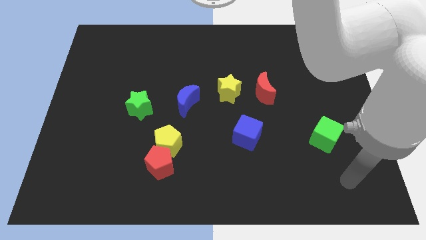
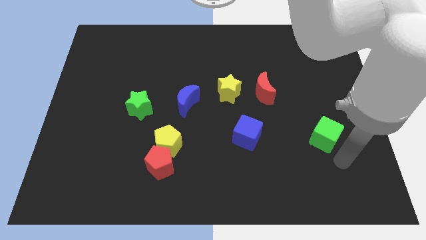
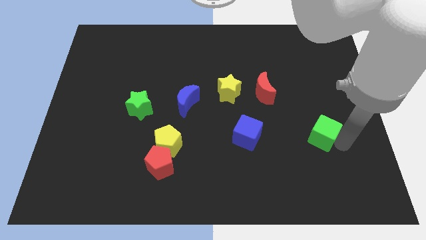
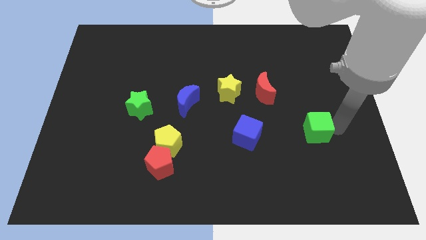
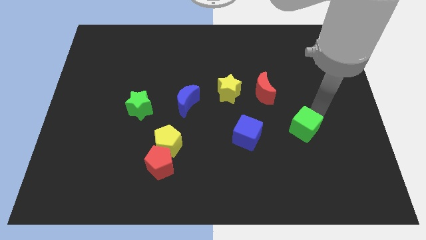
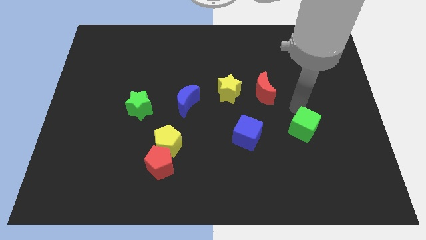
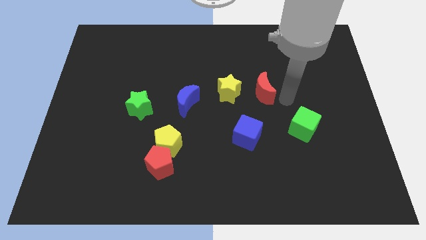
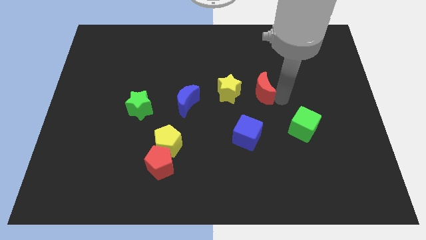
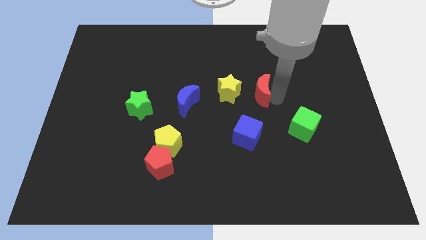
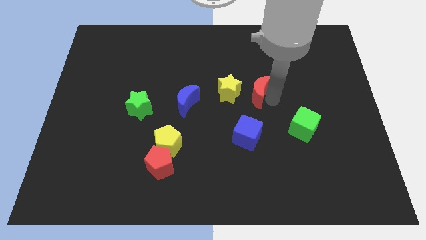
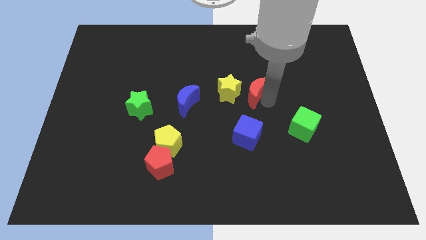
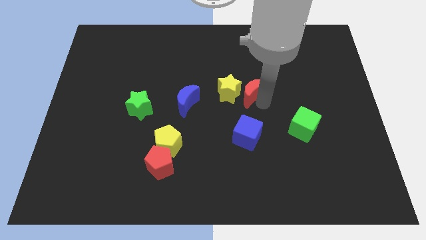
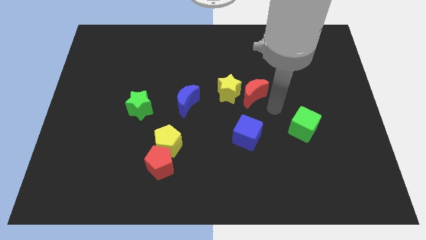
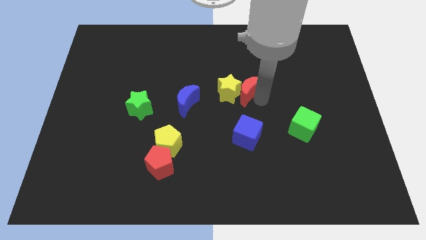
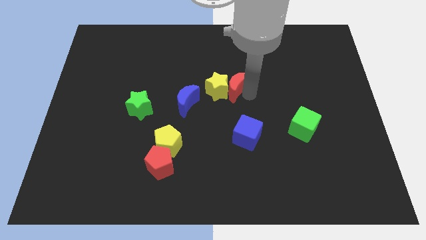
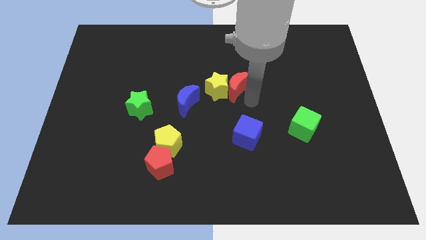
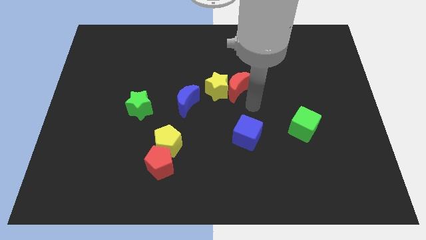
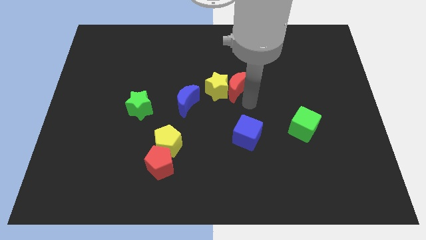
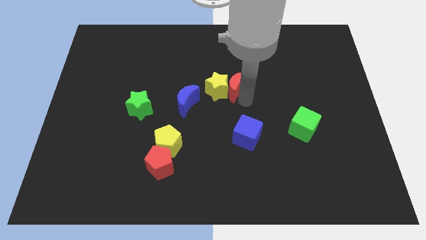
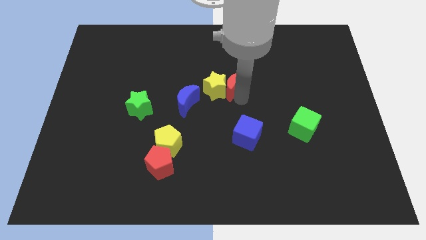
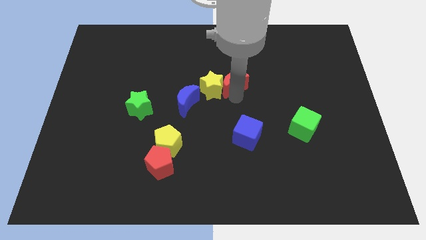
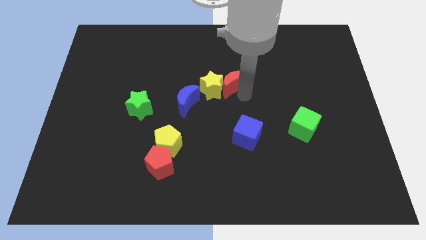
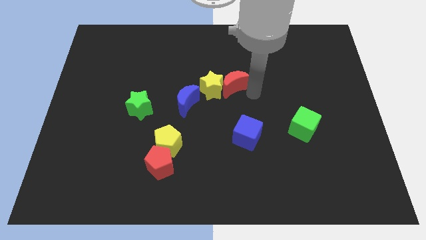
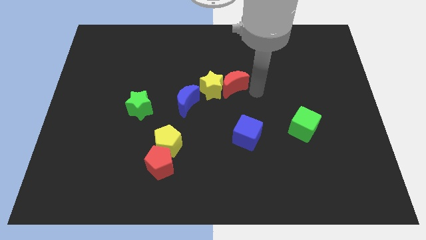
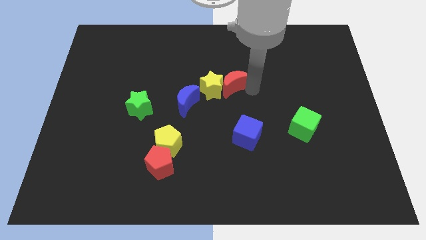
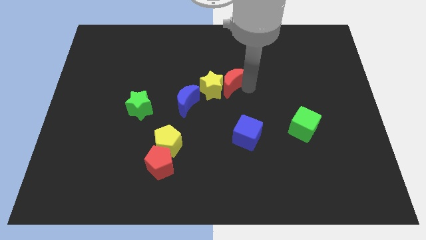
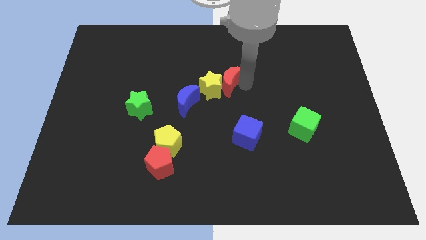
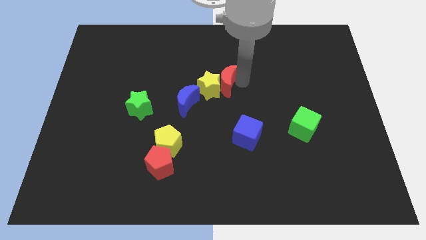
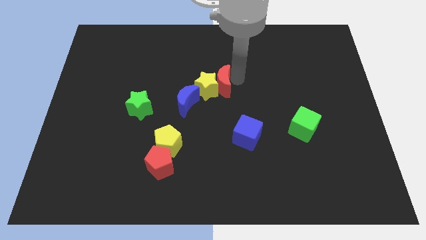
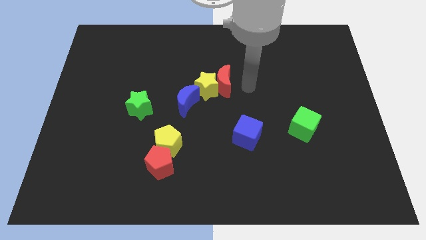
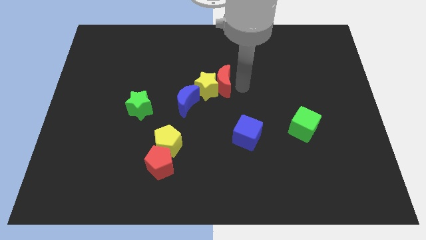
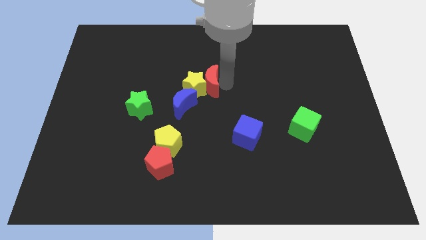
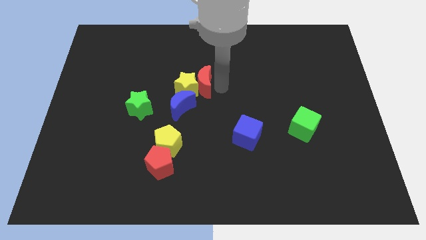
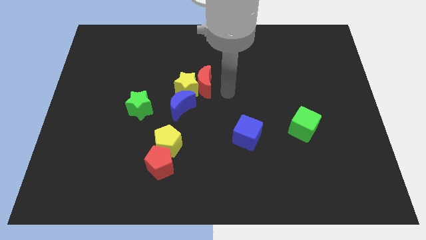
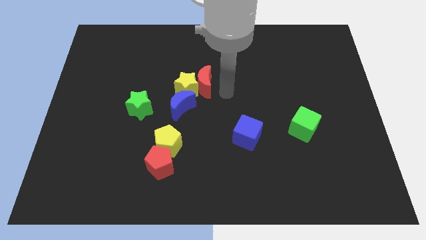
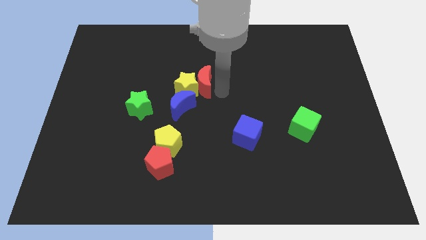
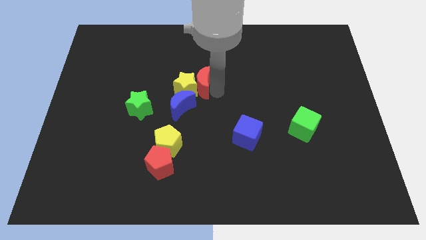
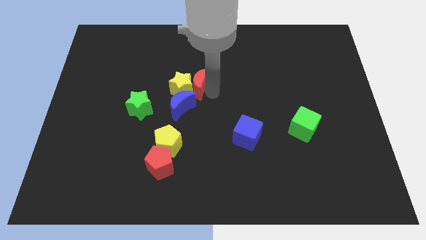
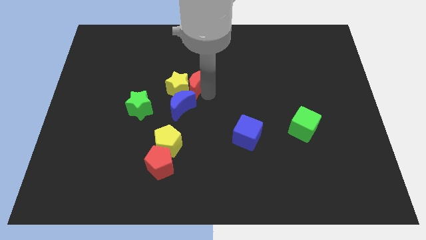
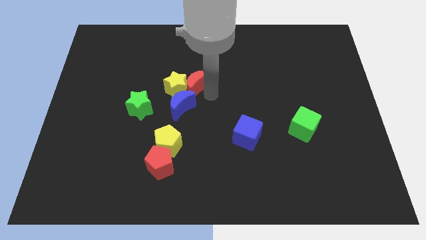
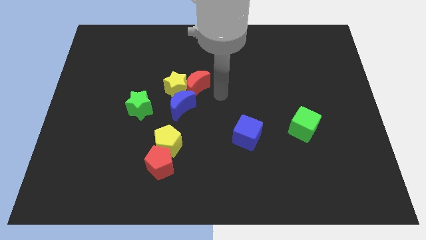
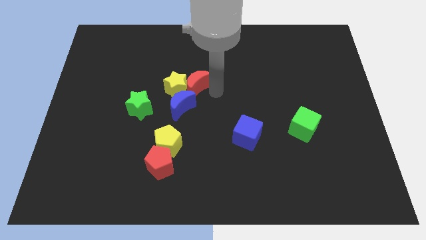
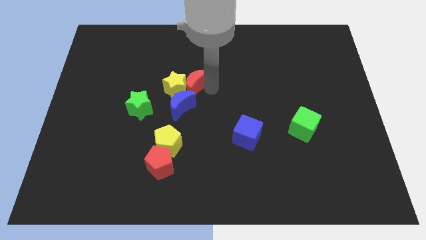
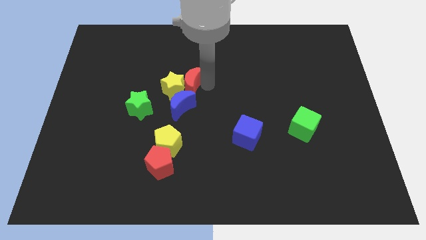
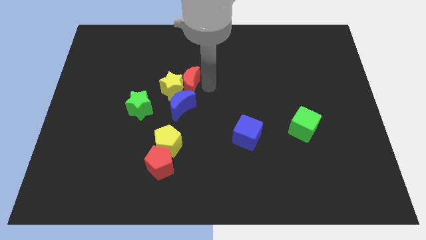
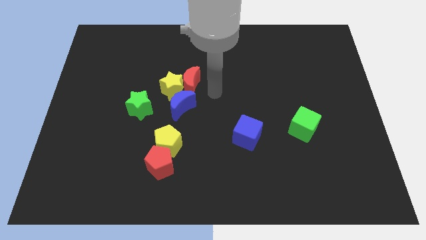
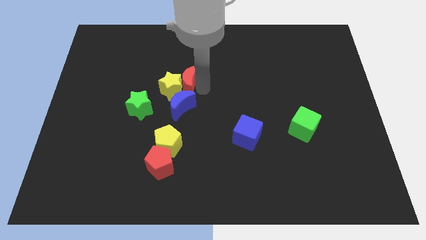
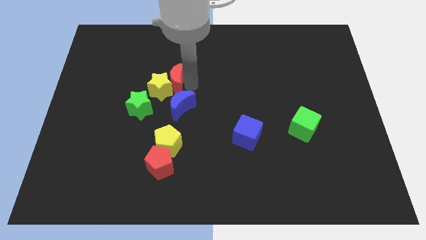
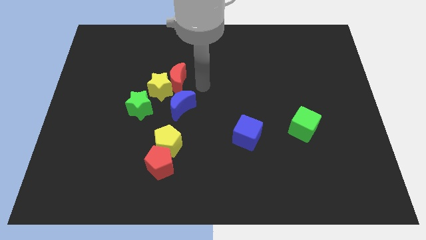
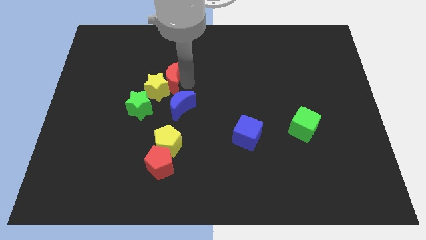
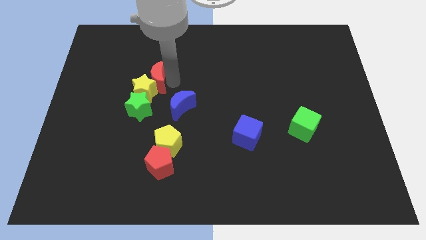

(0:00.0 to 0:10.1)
put the red moon to the top of the green star

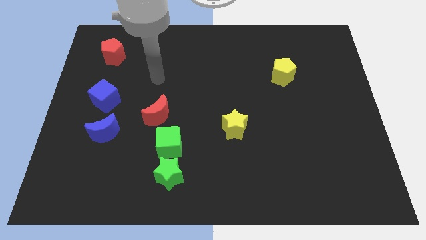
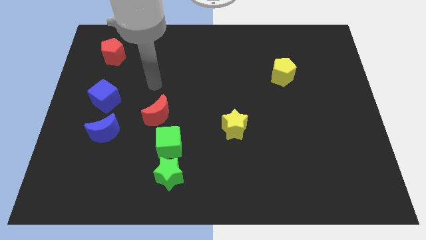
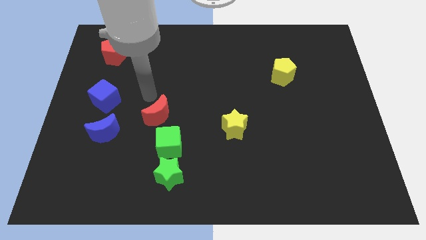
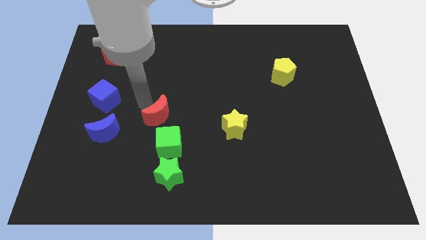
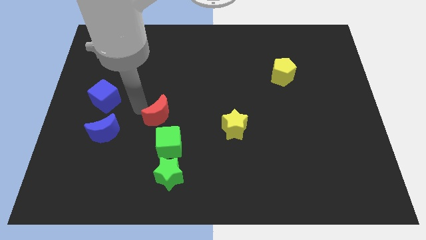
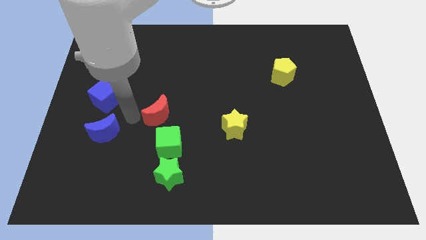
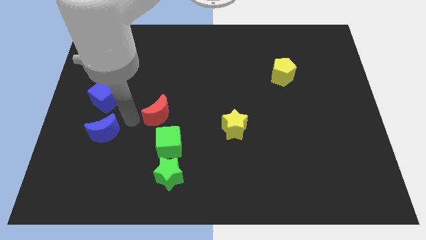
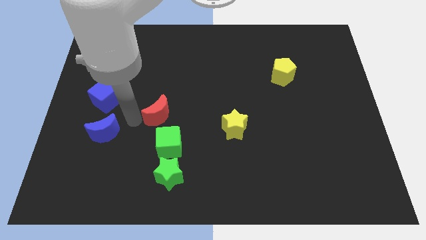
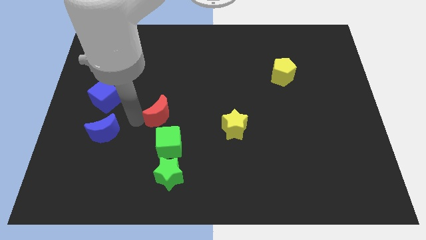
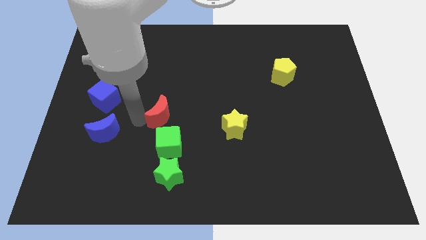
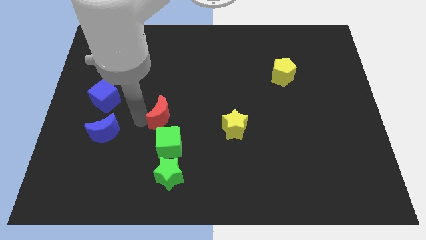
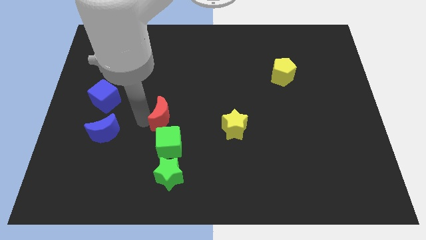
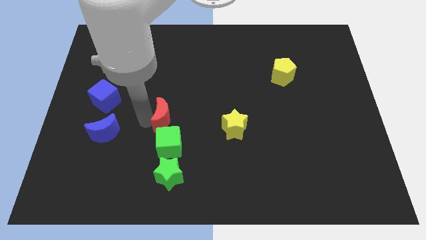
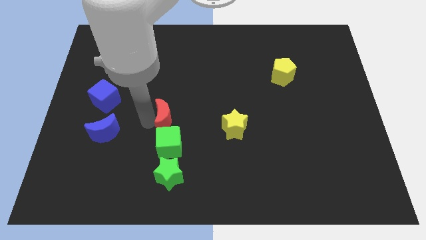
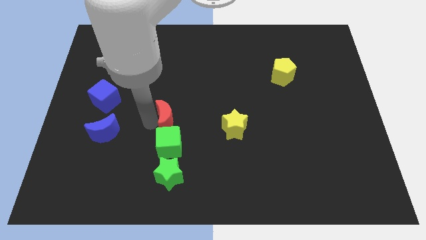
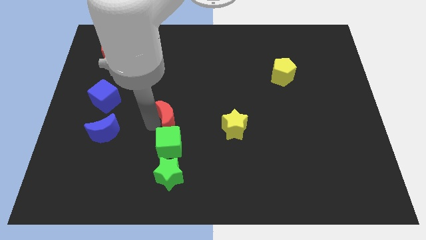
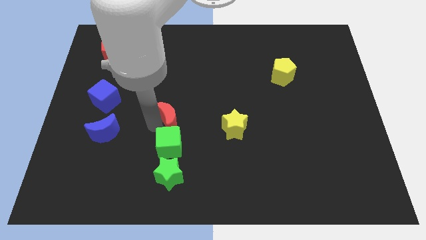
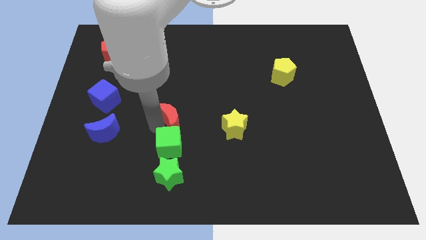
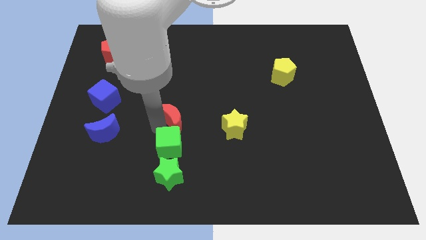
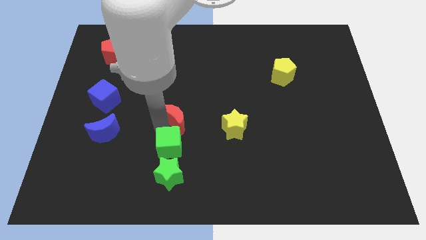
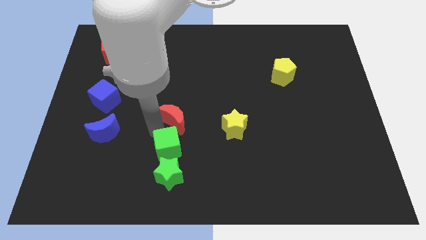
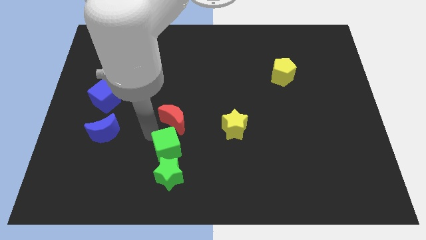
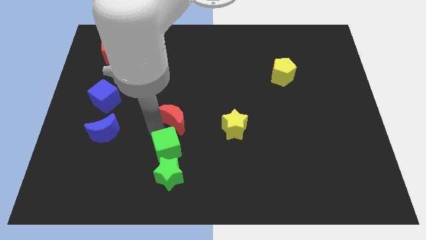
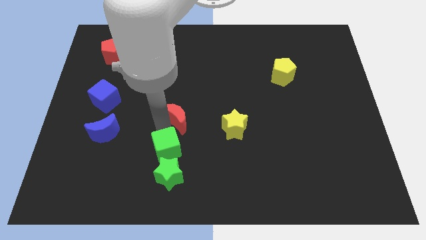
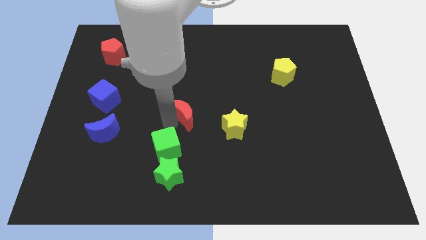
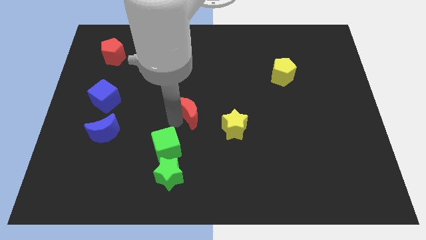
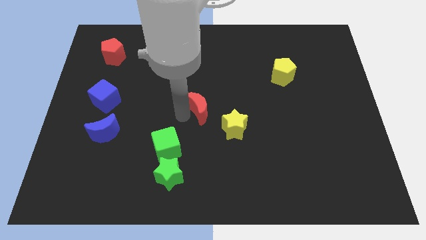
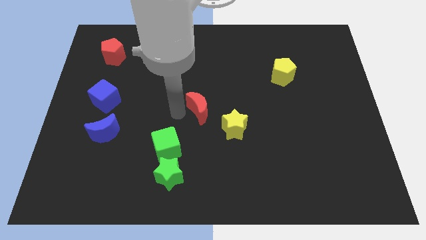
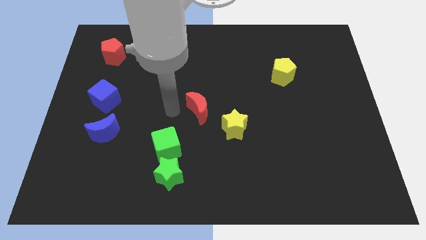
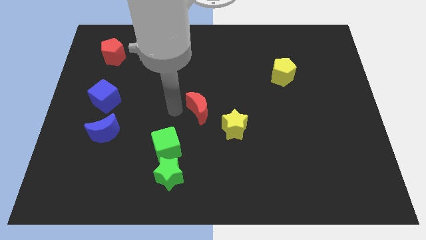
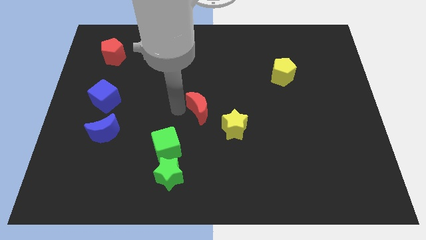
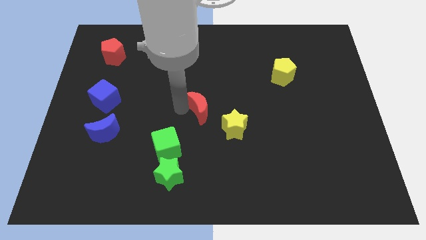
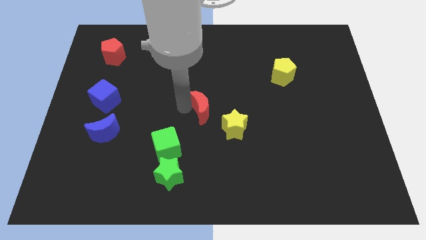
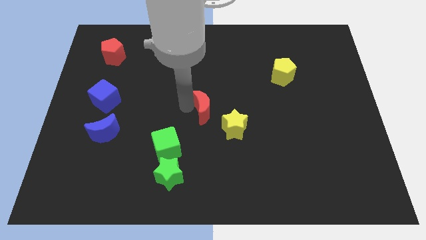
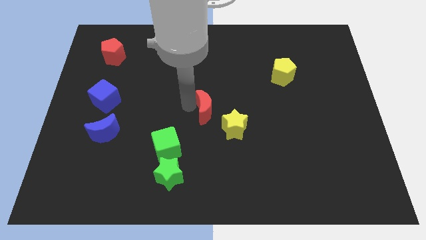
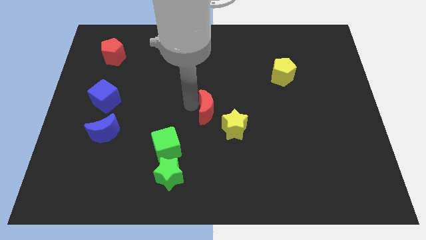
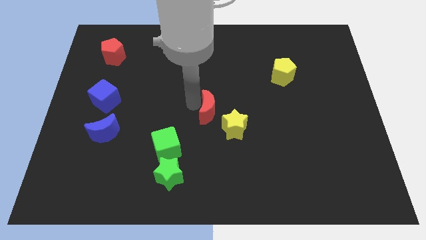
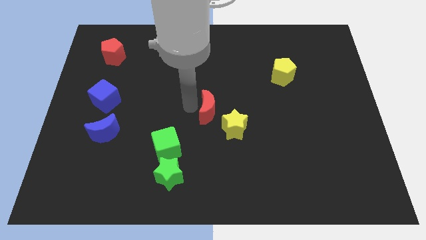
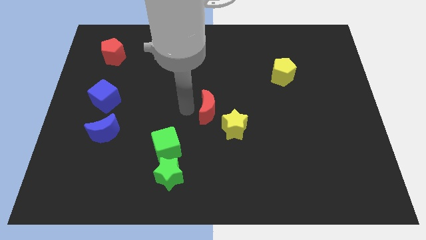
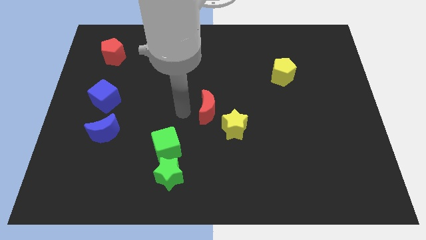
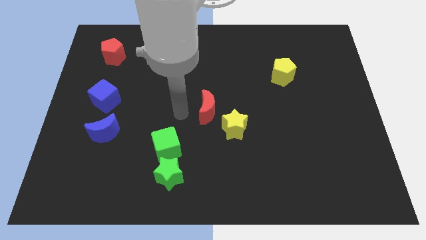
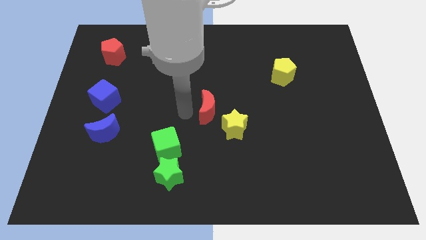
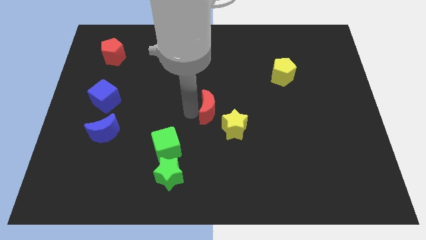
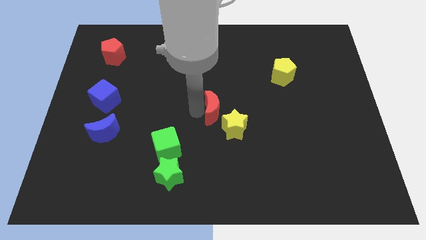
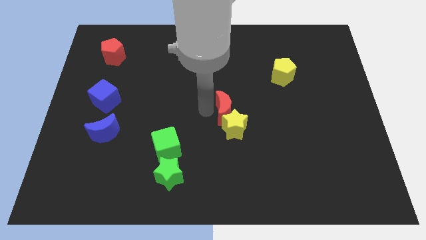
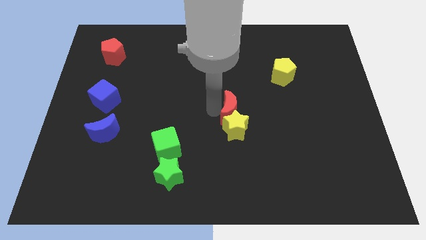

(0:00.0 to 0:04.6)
slide the red moon to the top right side of the yellow star
